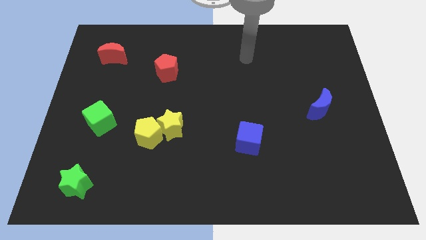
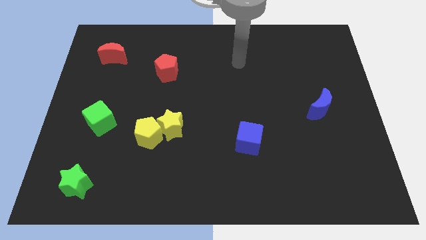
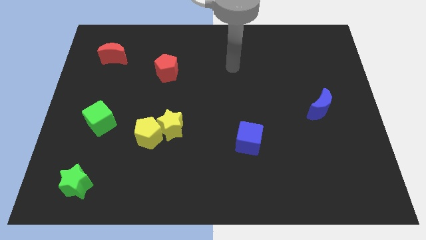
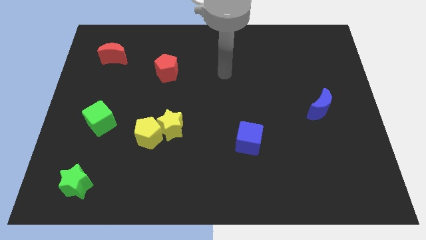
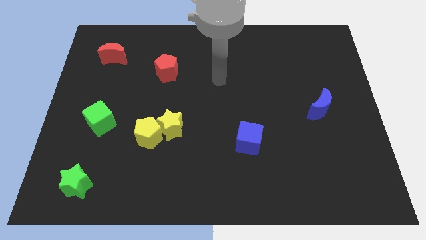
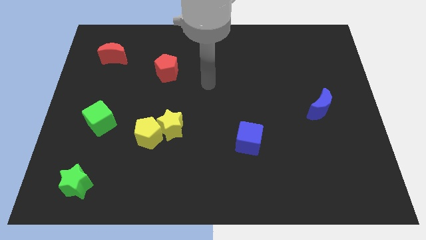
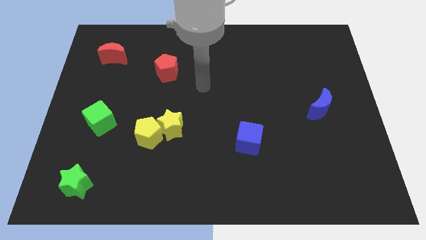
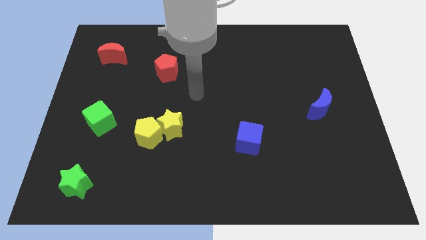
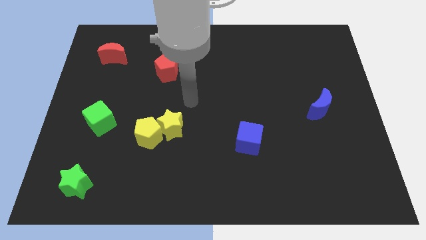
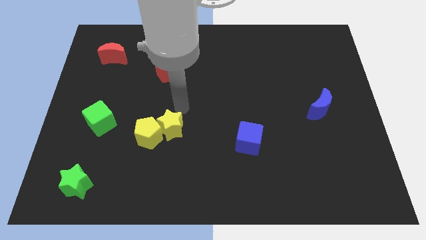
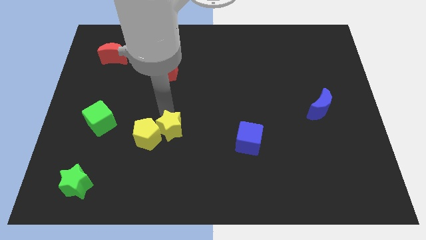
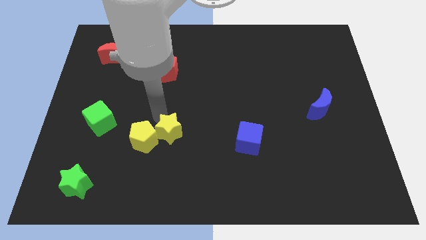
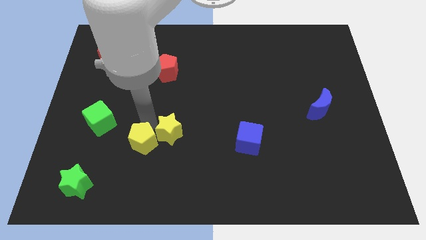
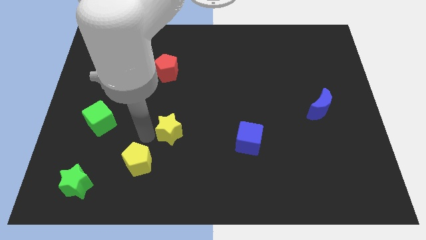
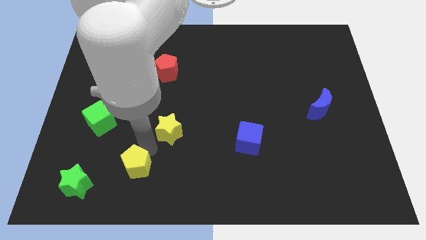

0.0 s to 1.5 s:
move the yellow star away from the yellow pentagon

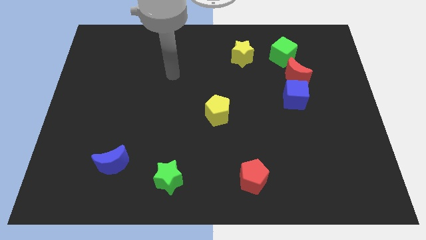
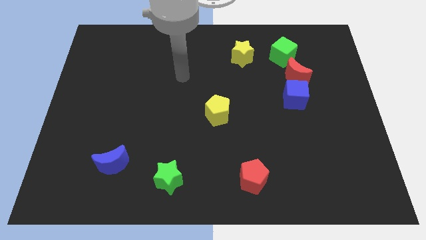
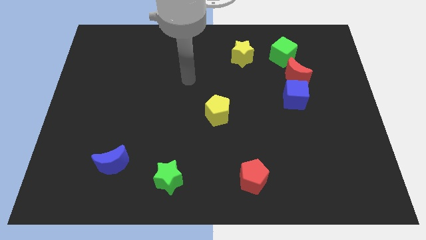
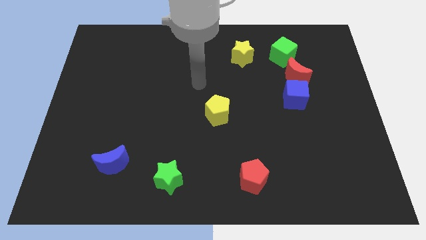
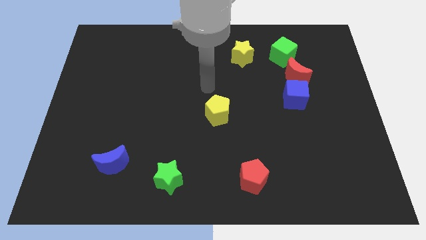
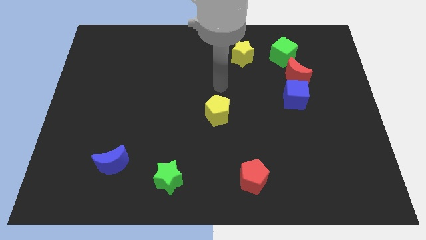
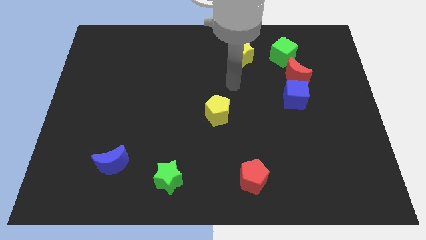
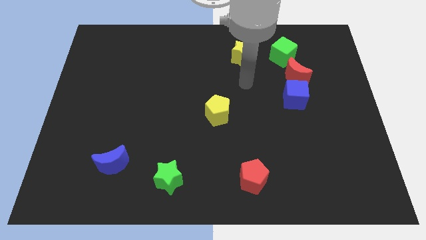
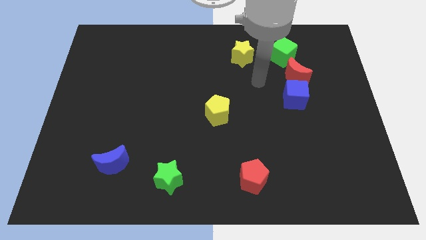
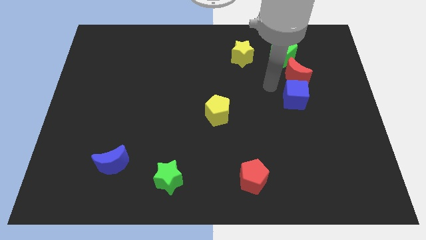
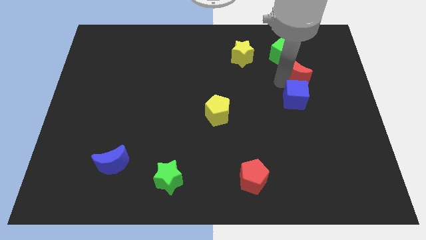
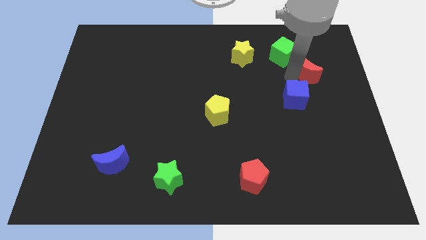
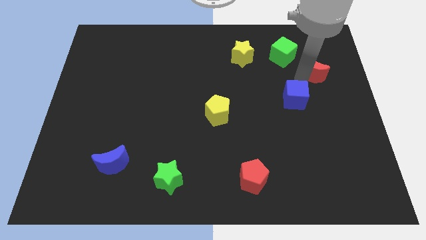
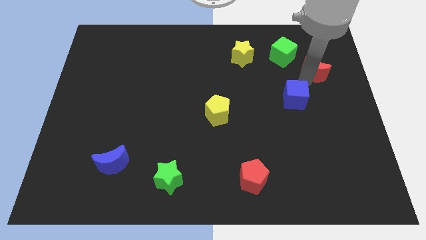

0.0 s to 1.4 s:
pull the blue cube apart from the red moon

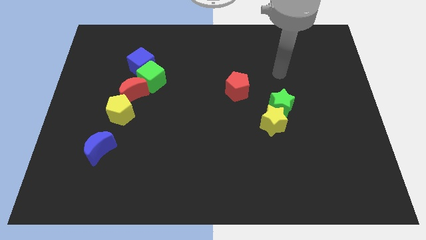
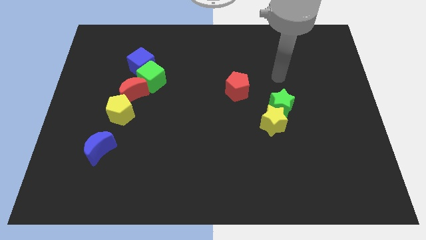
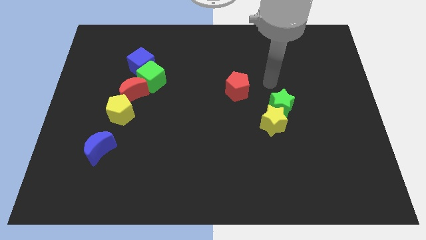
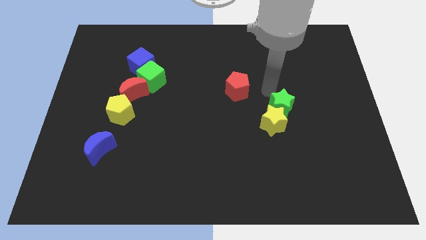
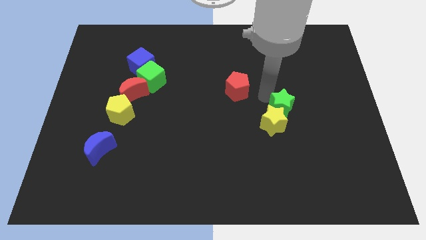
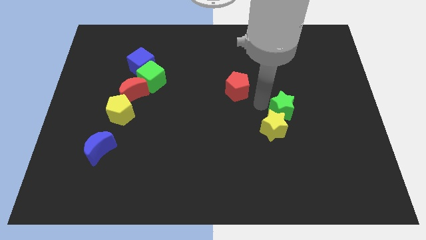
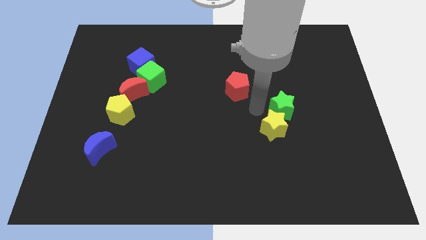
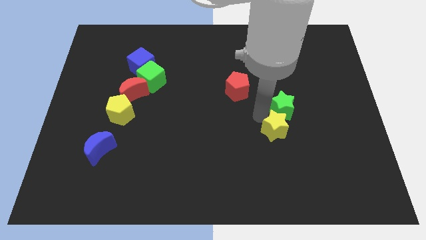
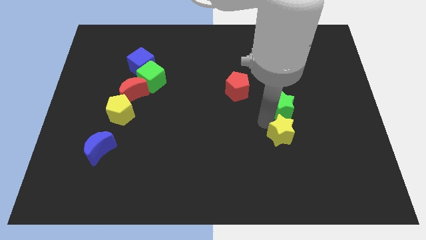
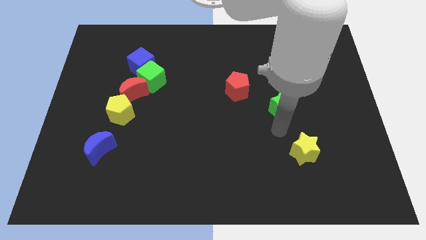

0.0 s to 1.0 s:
pull the green star apart from the yellow star

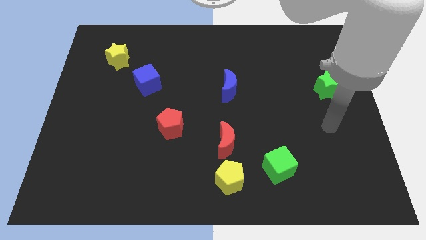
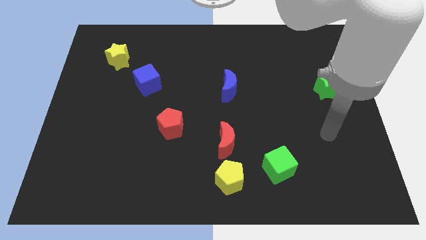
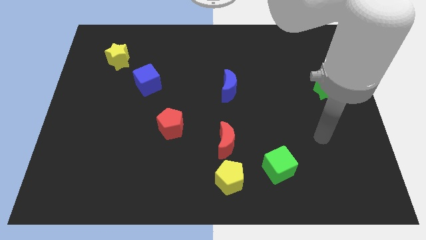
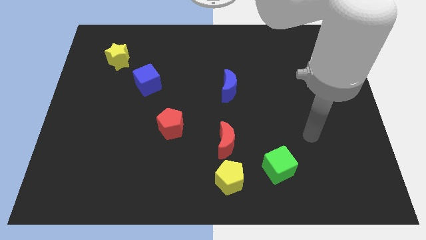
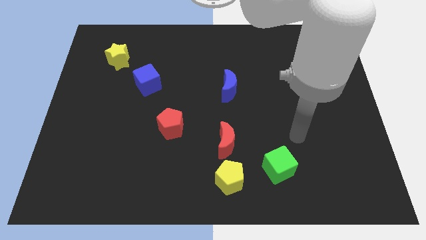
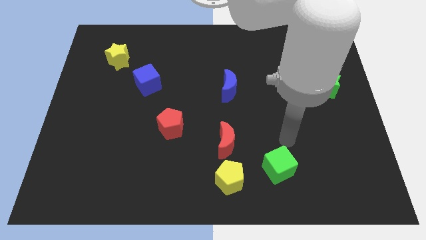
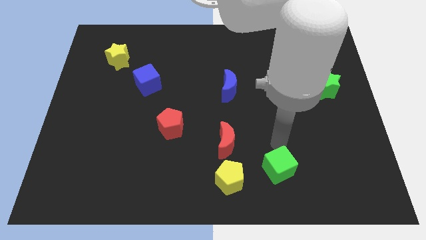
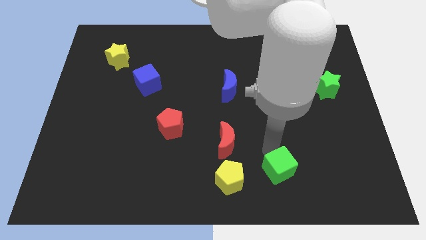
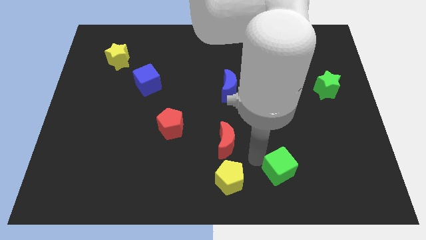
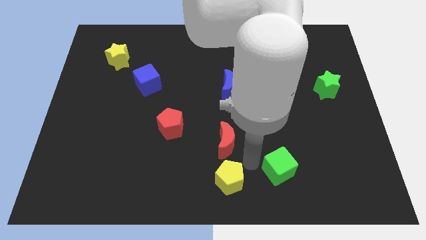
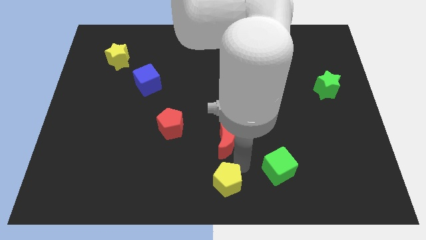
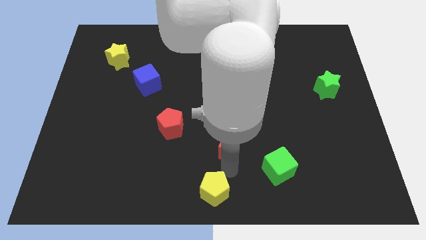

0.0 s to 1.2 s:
pull the red moon apart from the yellow pentagon

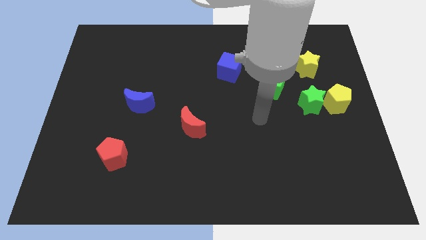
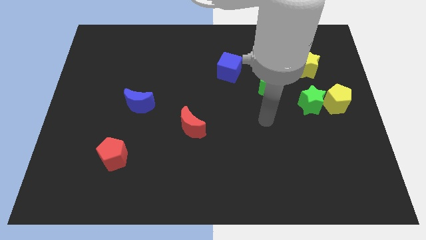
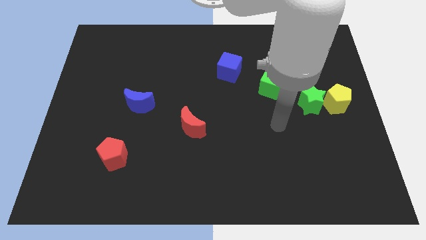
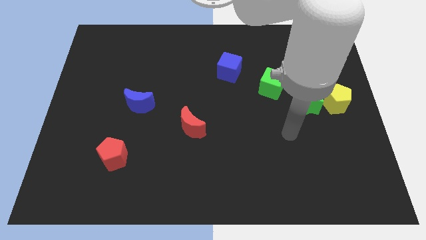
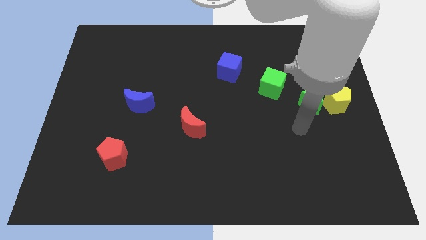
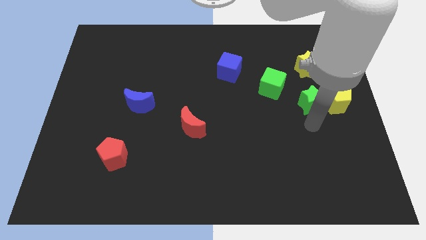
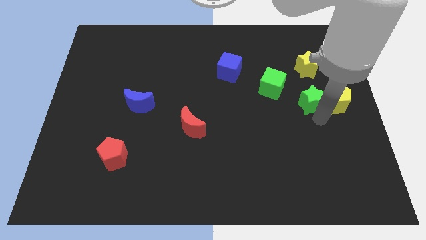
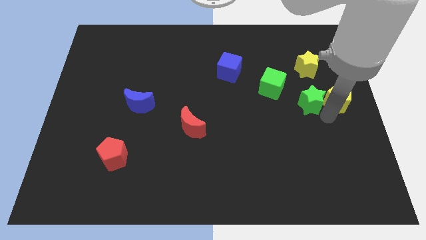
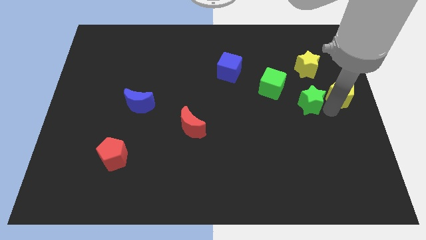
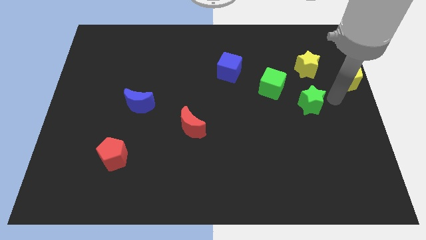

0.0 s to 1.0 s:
separate the green star from the yellow pentagon

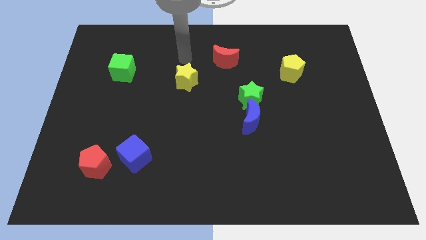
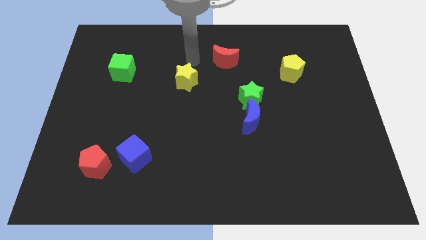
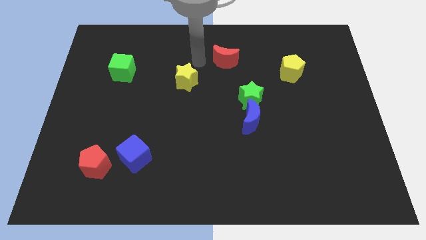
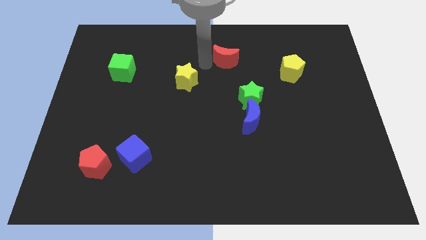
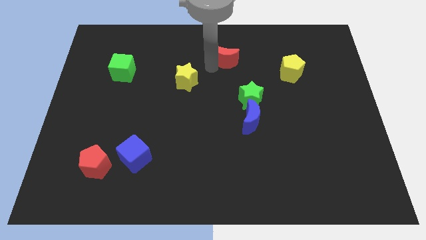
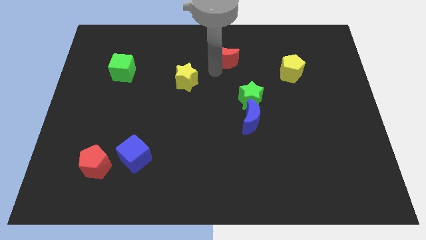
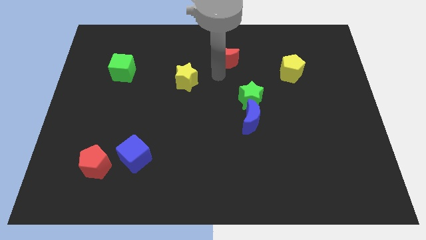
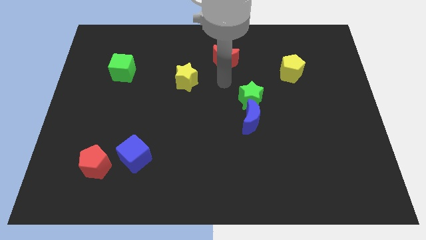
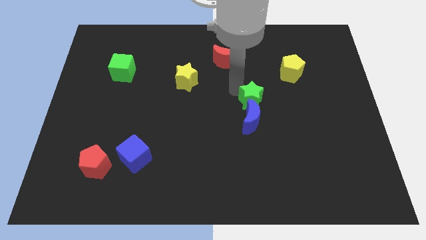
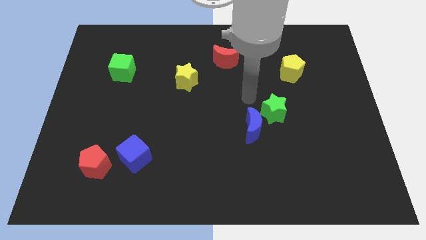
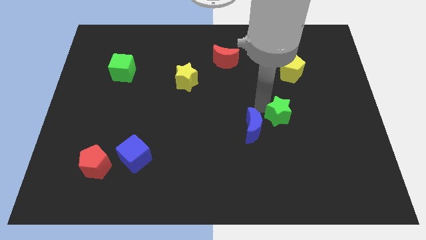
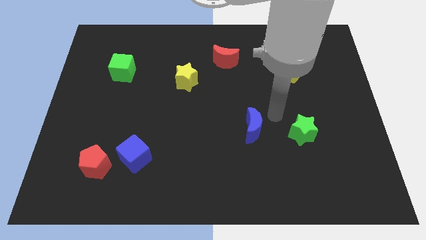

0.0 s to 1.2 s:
separate the blue moon from the green star

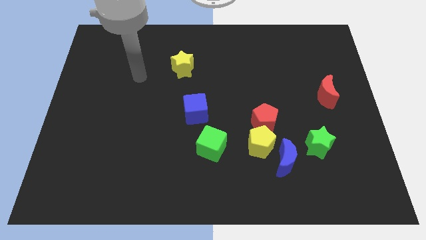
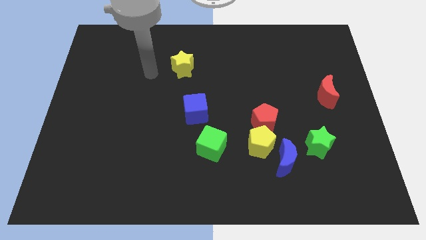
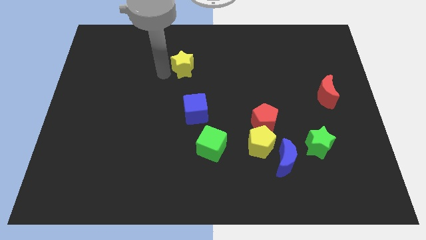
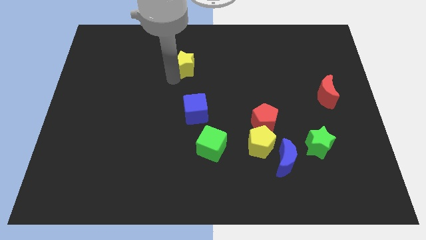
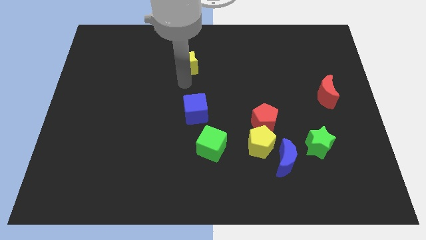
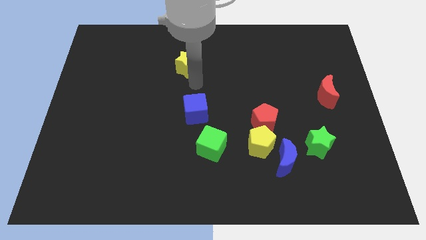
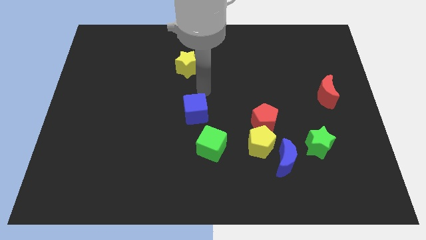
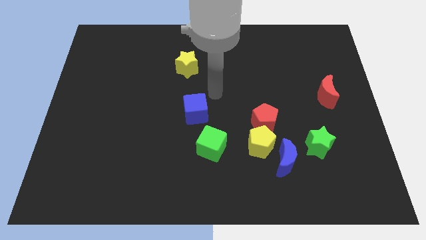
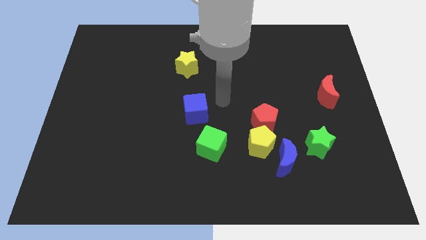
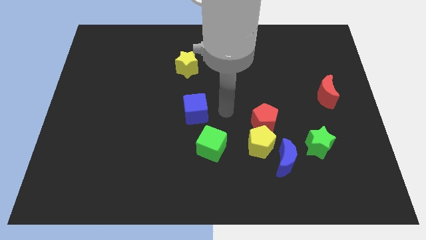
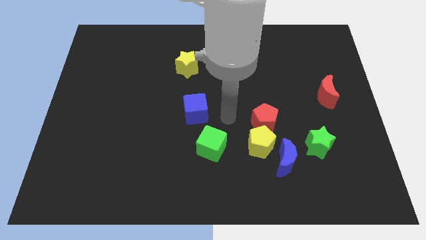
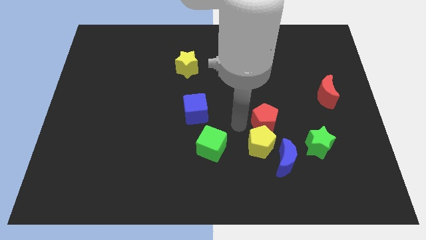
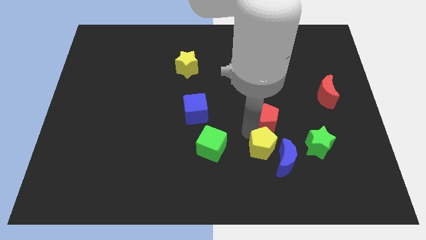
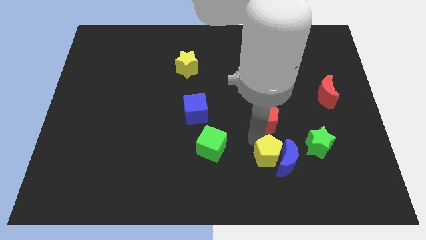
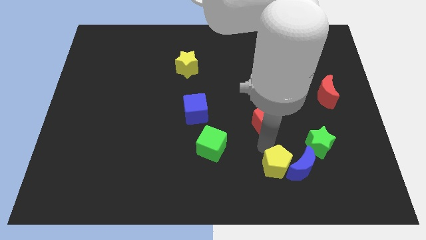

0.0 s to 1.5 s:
pull the red pentagon apart from the yellow pentagon

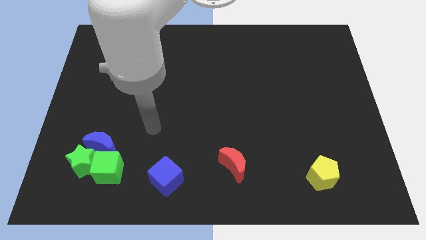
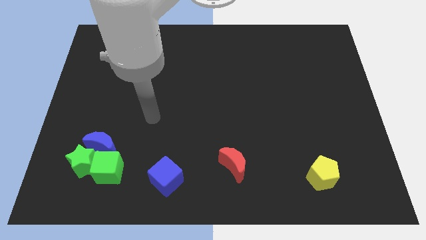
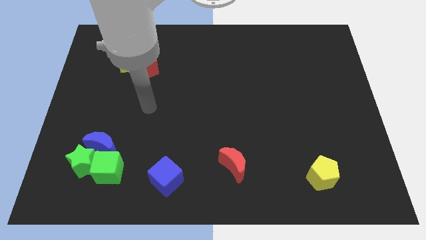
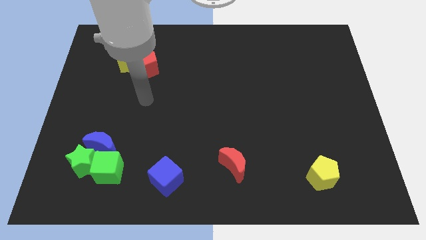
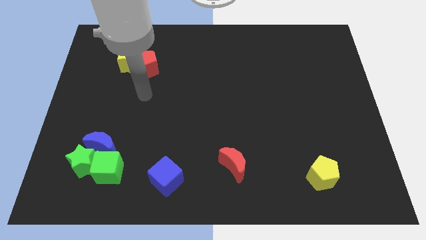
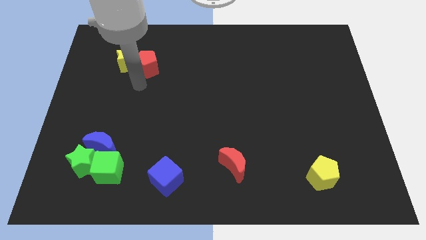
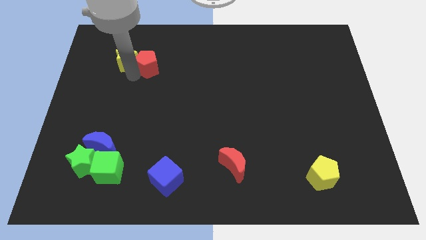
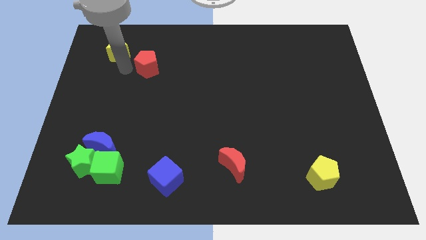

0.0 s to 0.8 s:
separate the red pentagon from the yellow star
